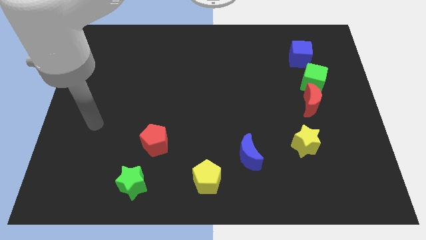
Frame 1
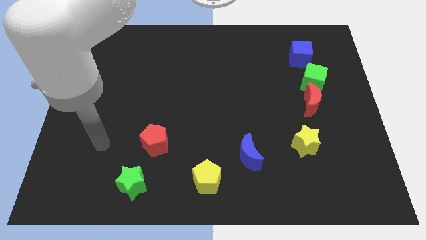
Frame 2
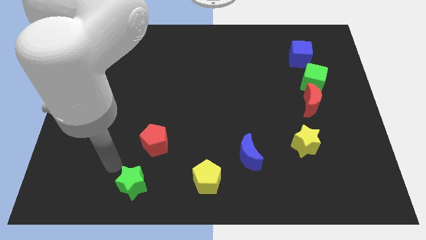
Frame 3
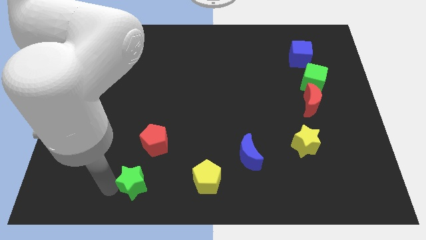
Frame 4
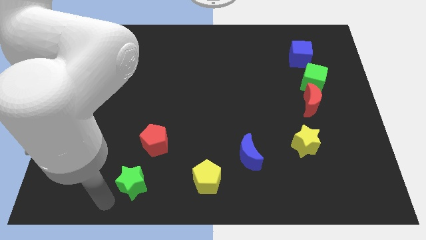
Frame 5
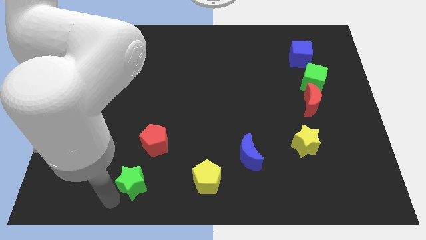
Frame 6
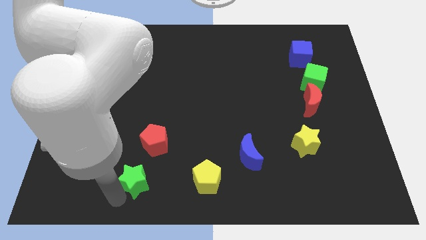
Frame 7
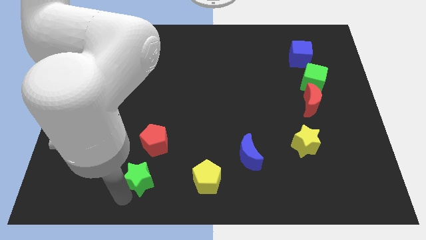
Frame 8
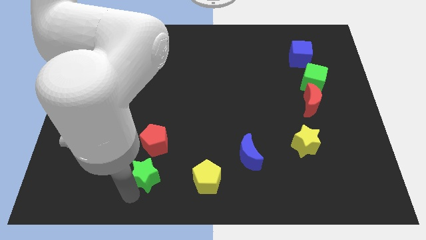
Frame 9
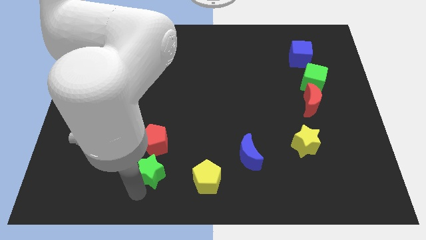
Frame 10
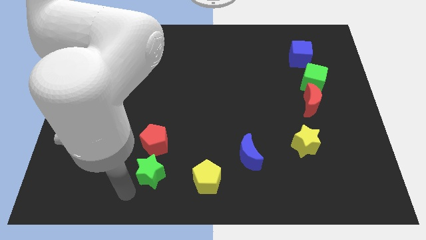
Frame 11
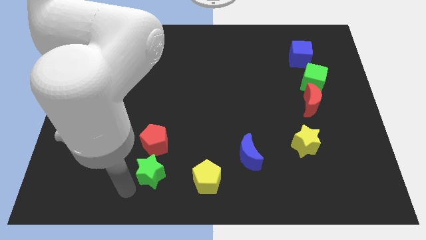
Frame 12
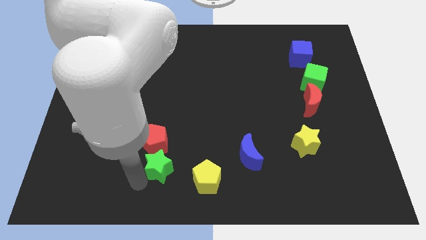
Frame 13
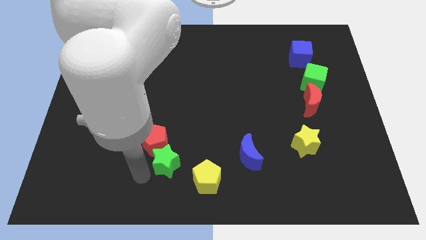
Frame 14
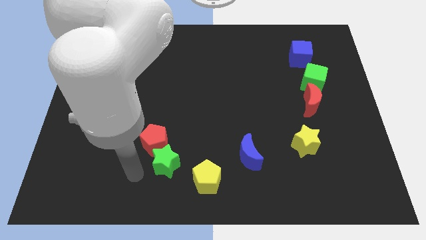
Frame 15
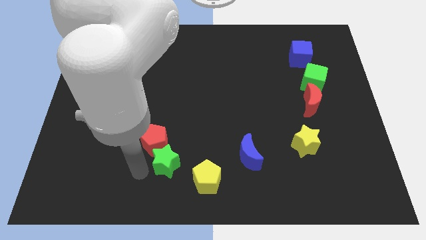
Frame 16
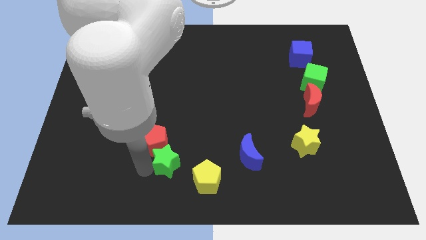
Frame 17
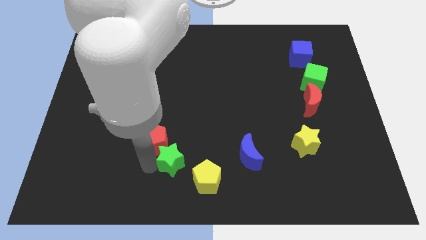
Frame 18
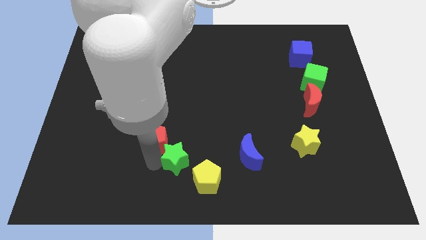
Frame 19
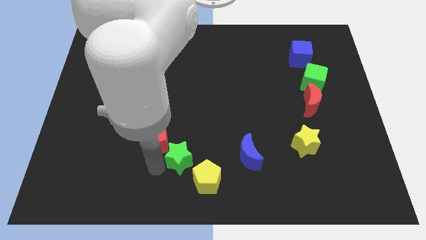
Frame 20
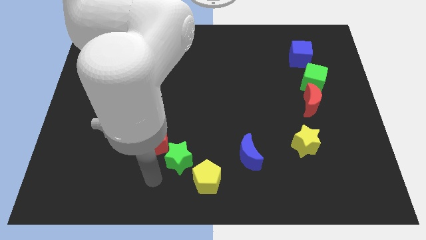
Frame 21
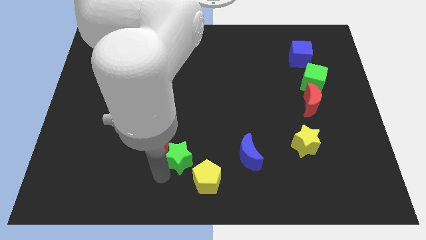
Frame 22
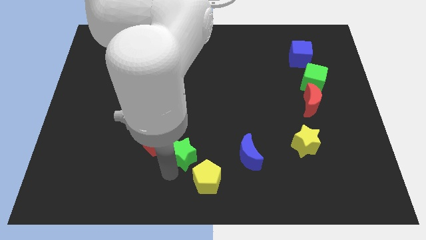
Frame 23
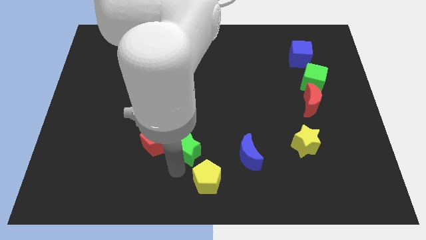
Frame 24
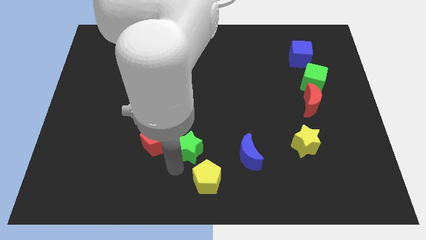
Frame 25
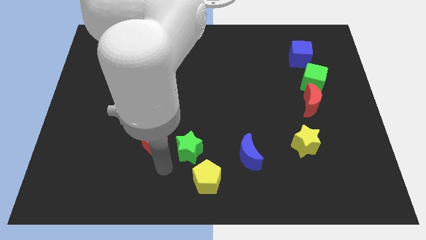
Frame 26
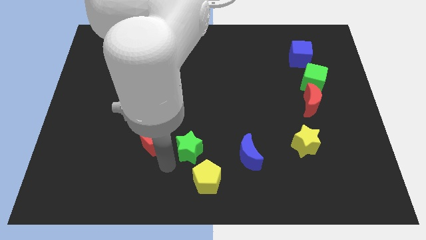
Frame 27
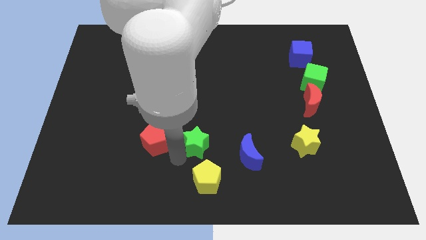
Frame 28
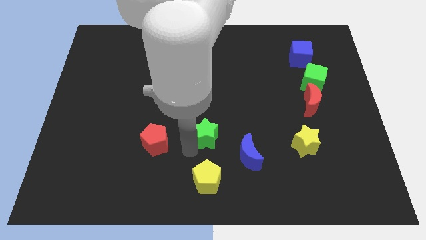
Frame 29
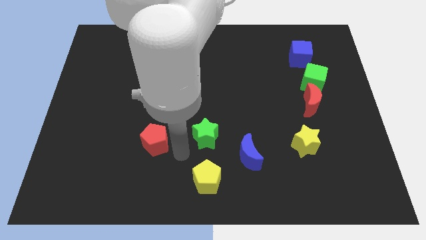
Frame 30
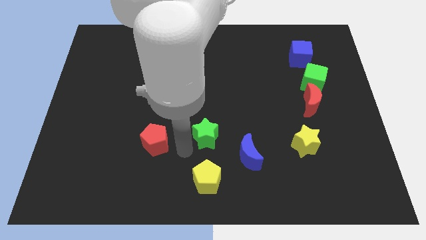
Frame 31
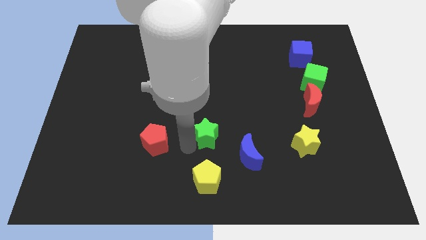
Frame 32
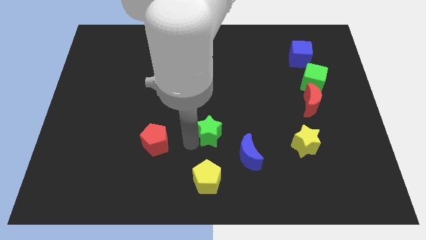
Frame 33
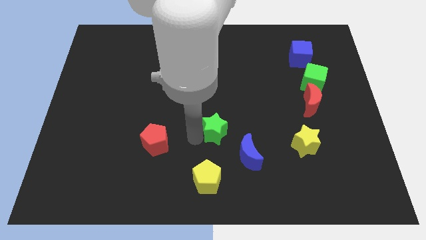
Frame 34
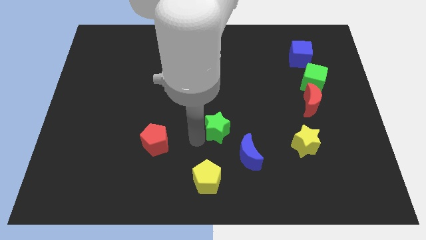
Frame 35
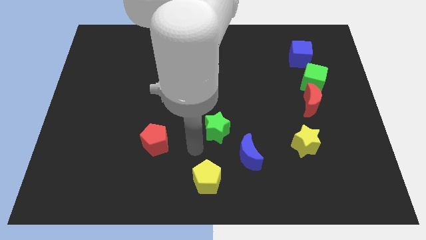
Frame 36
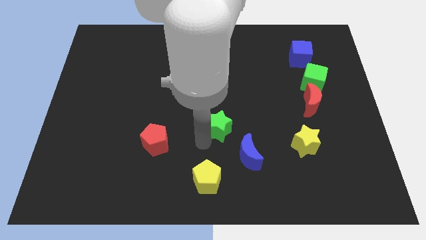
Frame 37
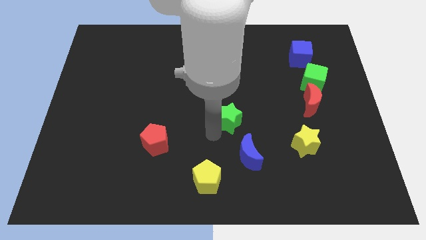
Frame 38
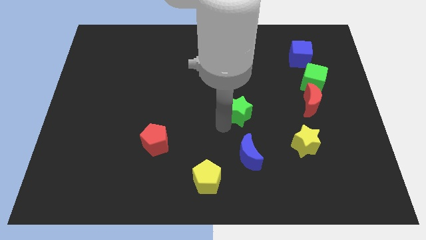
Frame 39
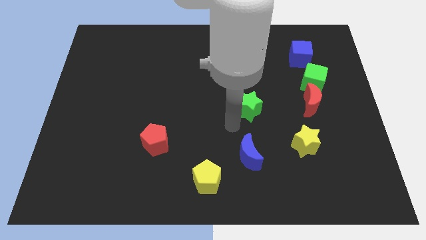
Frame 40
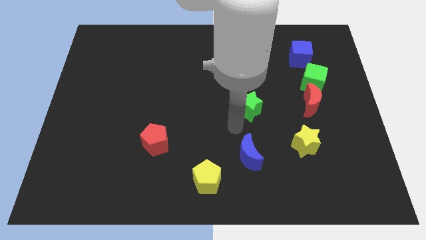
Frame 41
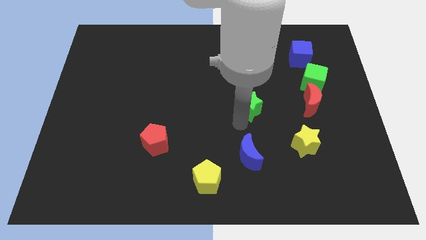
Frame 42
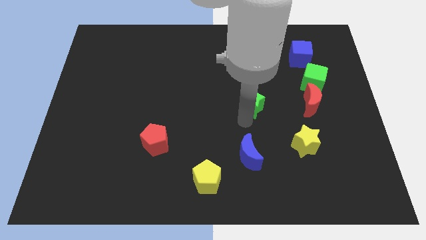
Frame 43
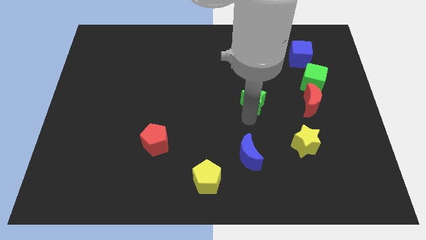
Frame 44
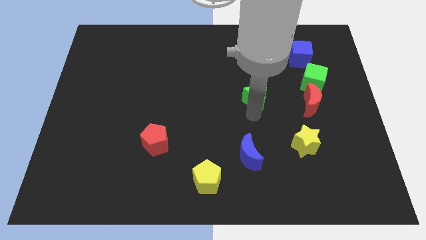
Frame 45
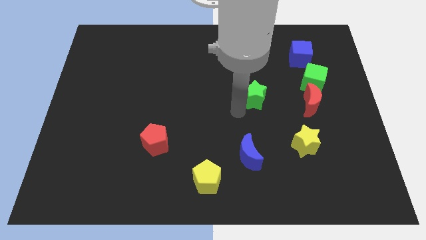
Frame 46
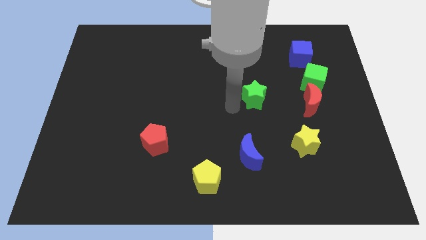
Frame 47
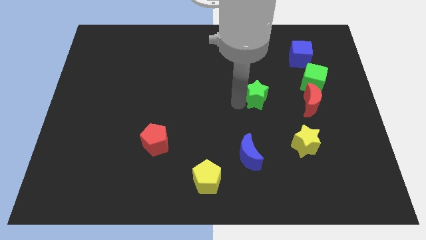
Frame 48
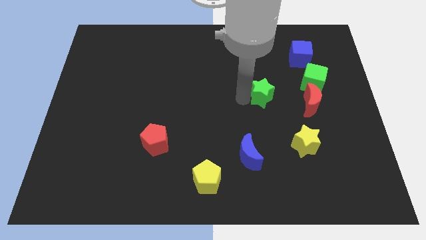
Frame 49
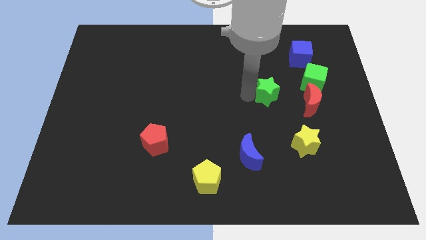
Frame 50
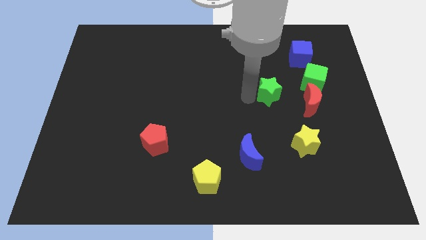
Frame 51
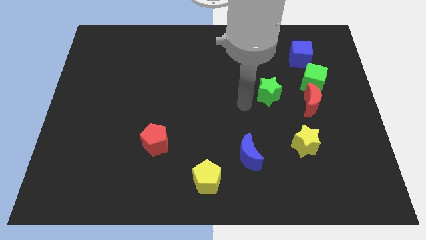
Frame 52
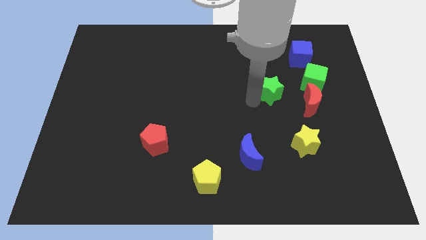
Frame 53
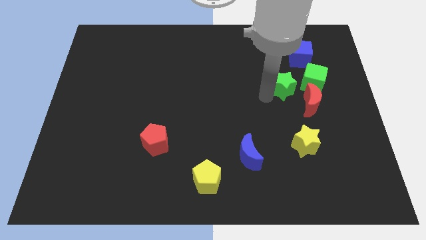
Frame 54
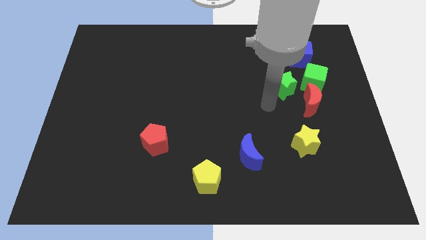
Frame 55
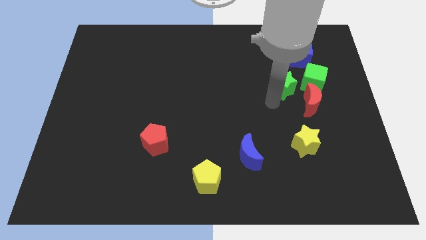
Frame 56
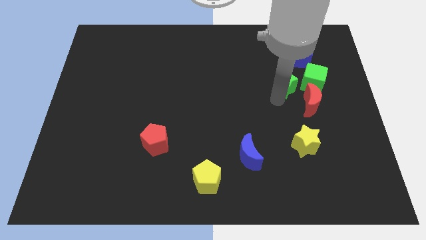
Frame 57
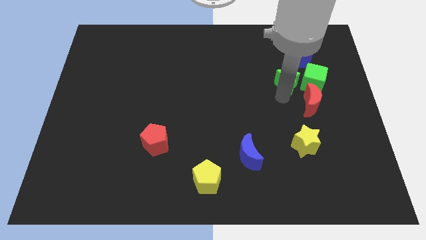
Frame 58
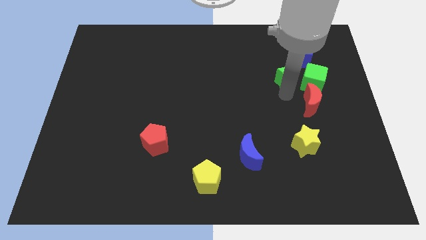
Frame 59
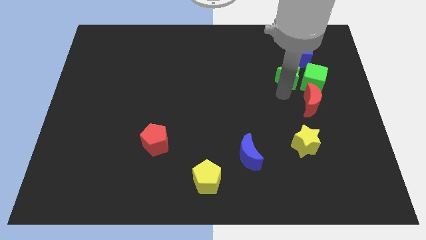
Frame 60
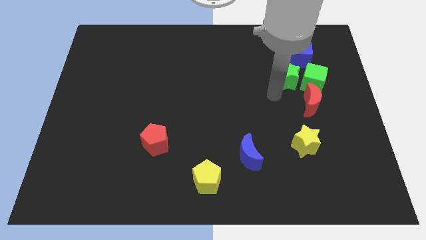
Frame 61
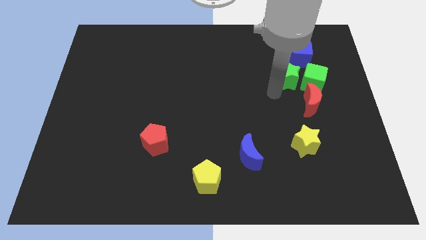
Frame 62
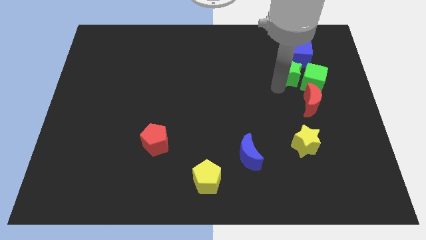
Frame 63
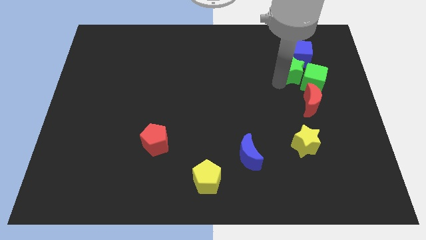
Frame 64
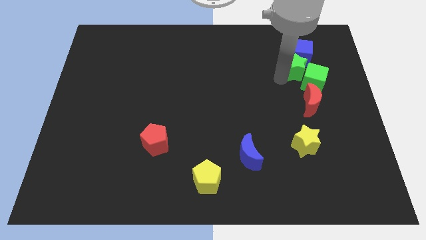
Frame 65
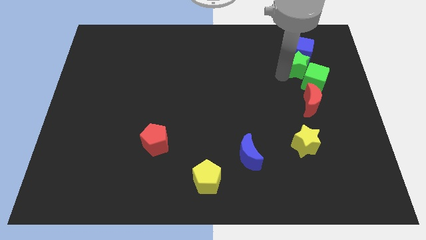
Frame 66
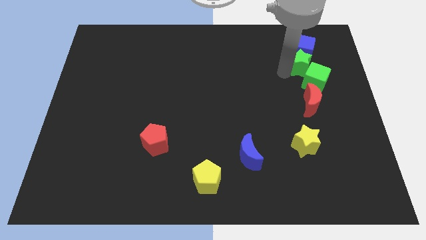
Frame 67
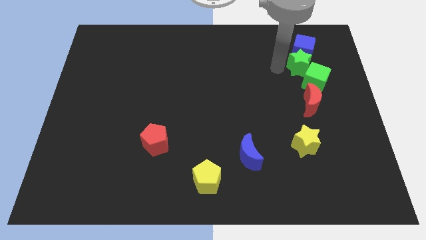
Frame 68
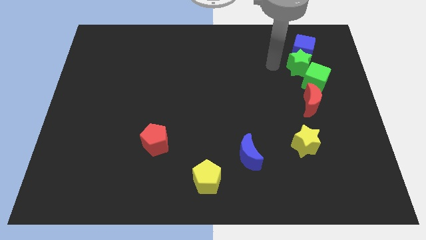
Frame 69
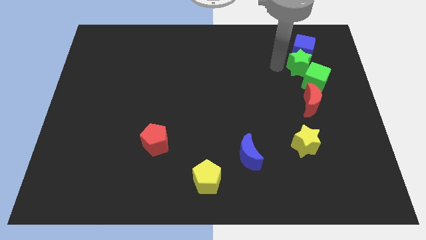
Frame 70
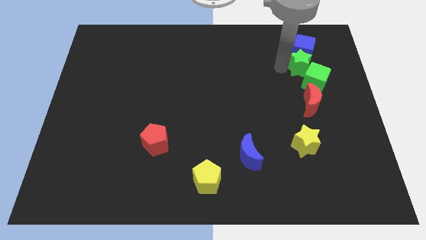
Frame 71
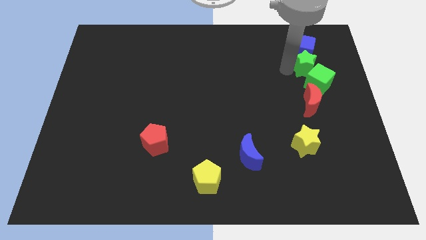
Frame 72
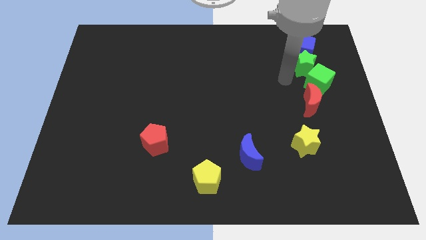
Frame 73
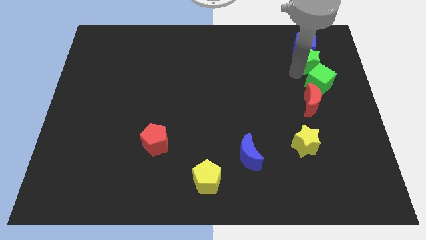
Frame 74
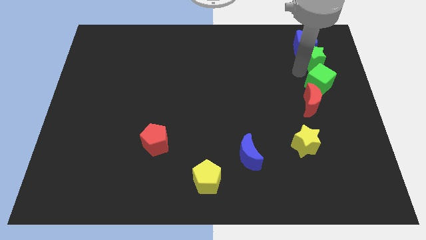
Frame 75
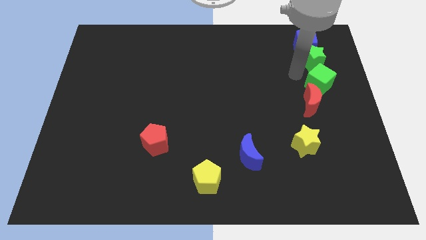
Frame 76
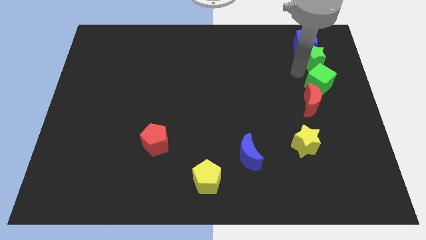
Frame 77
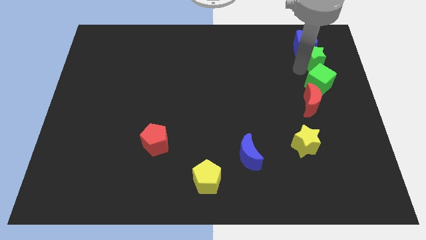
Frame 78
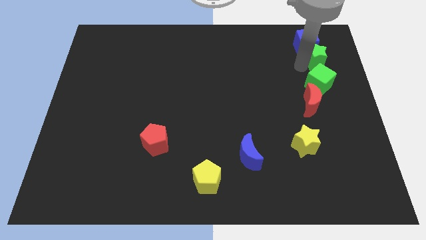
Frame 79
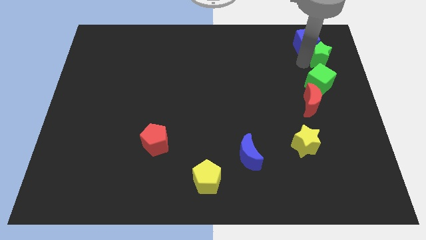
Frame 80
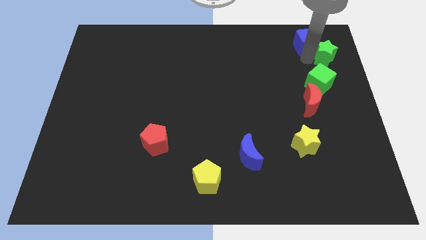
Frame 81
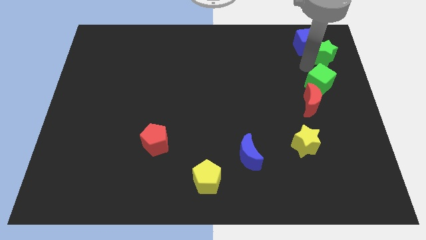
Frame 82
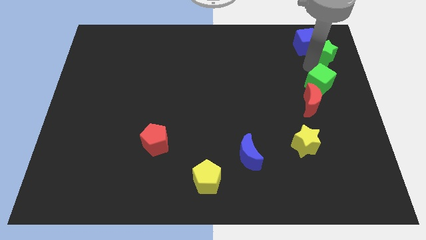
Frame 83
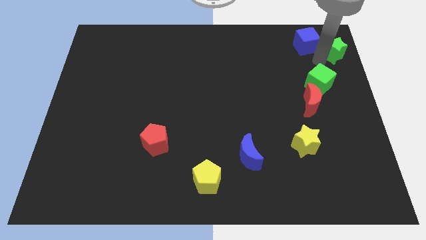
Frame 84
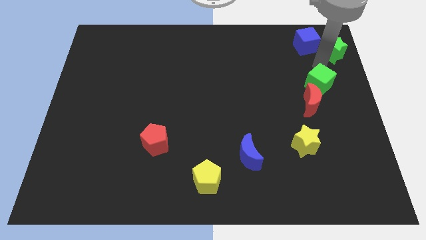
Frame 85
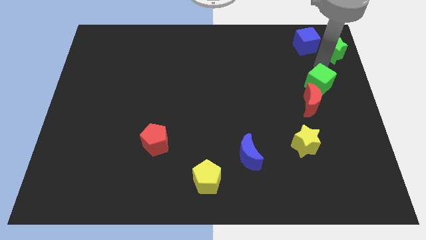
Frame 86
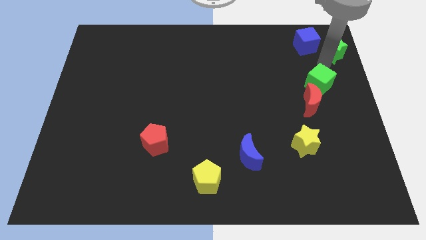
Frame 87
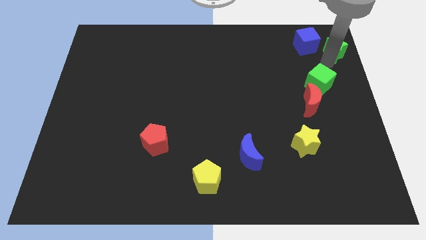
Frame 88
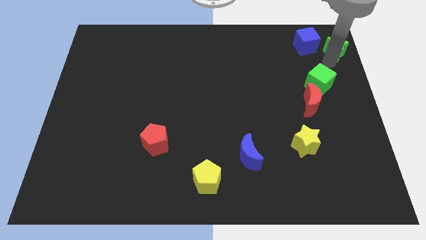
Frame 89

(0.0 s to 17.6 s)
push the green star to the top right of the board
